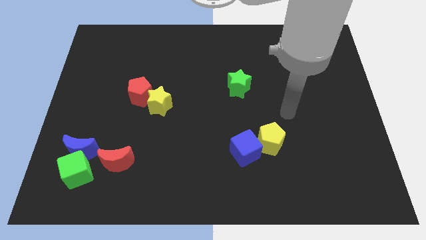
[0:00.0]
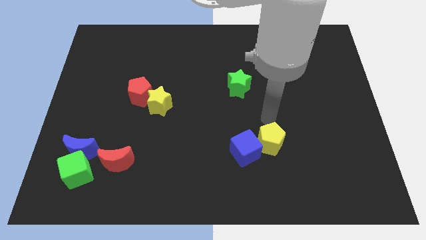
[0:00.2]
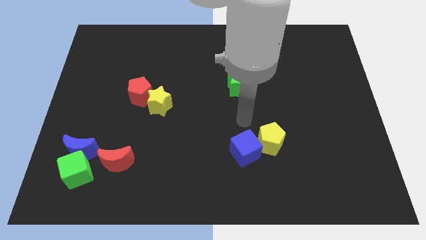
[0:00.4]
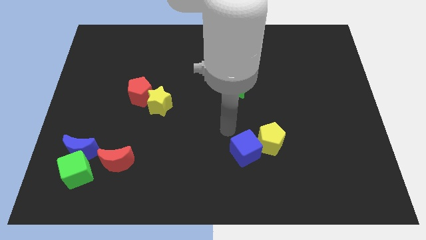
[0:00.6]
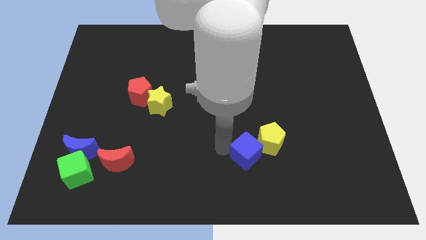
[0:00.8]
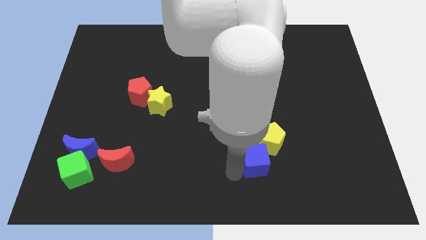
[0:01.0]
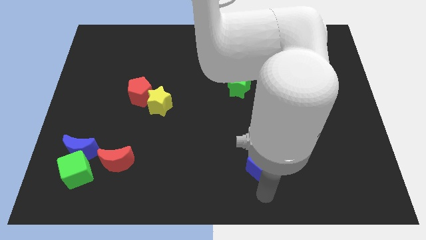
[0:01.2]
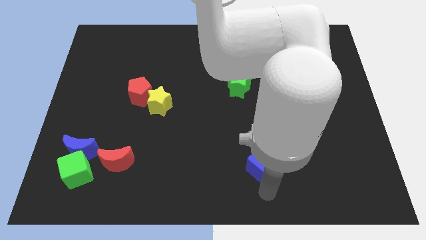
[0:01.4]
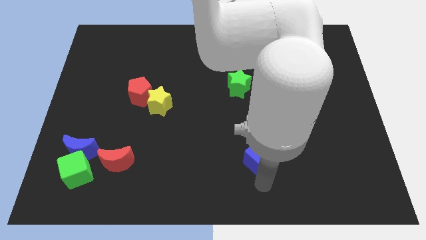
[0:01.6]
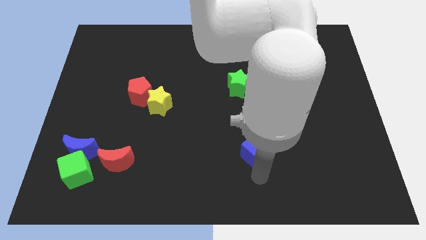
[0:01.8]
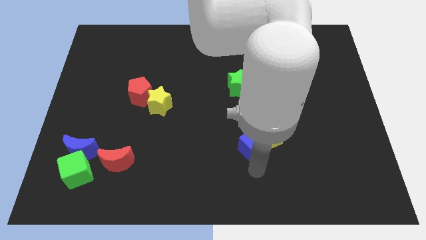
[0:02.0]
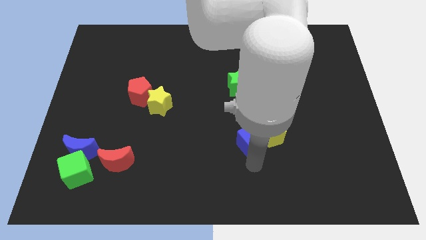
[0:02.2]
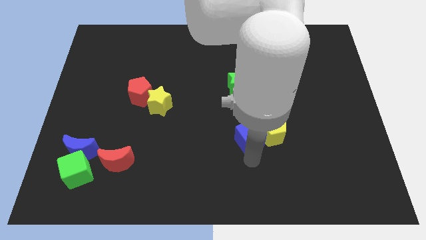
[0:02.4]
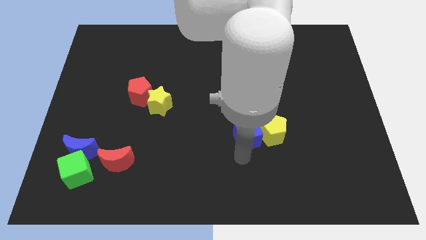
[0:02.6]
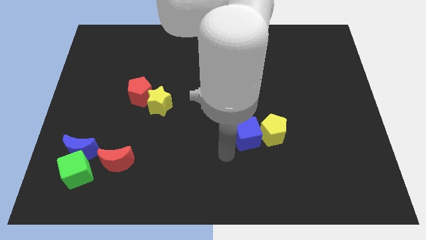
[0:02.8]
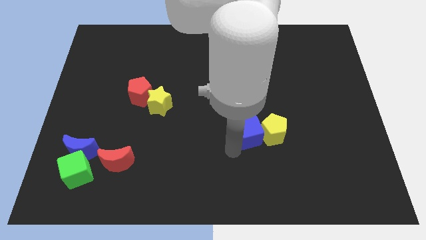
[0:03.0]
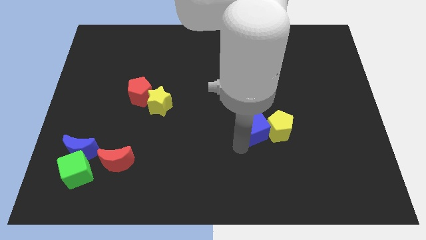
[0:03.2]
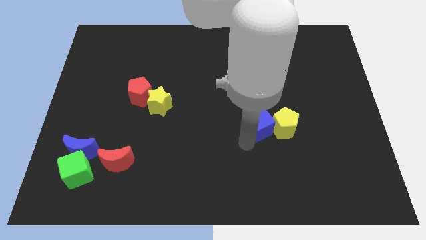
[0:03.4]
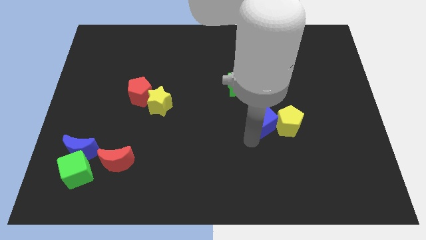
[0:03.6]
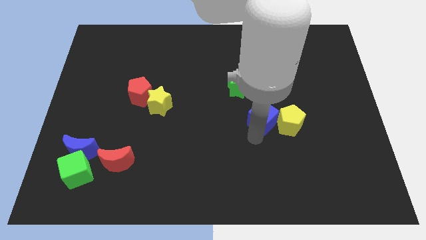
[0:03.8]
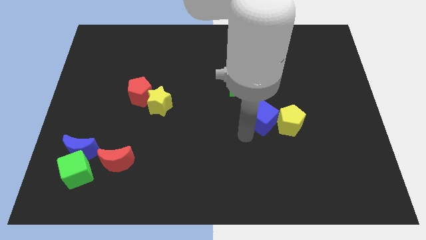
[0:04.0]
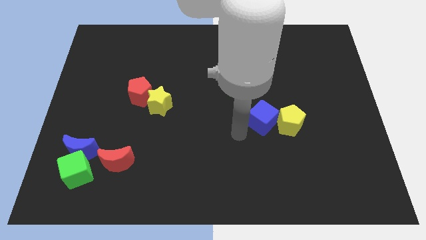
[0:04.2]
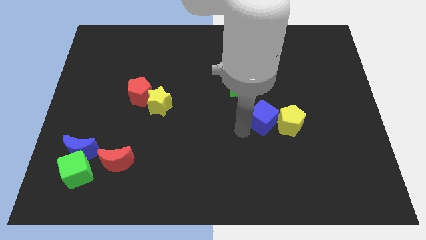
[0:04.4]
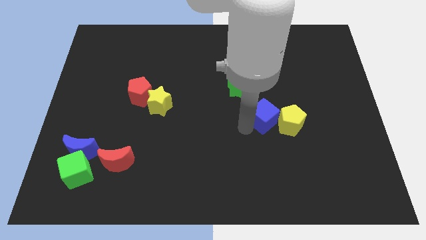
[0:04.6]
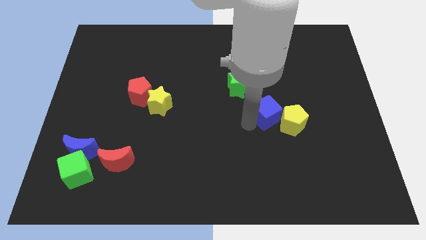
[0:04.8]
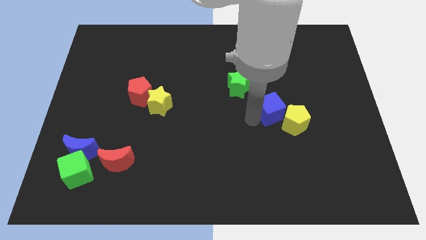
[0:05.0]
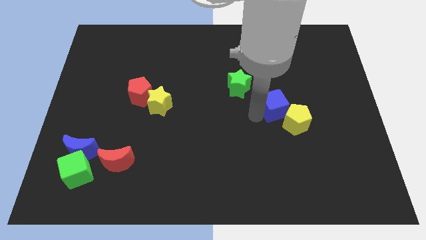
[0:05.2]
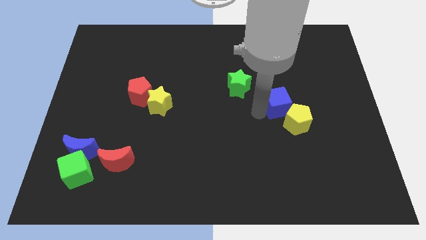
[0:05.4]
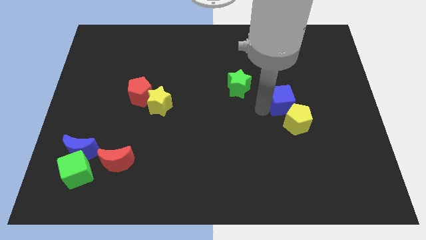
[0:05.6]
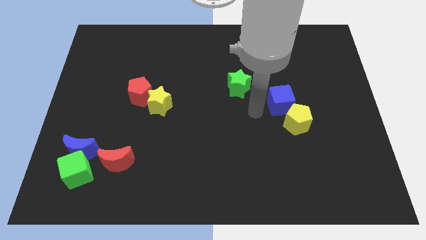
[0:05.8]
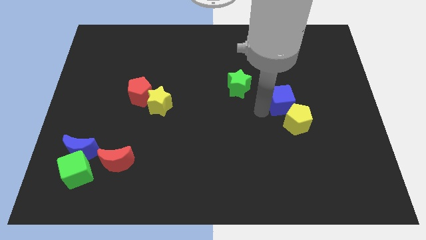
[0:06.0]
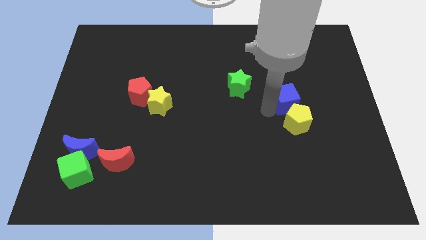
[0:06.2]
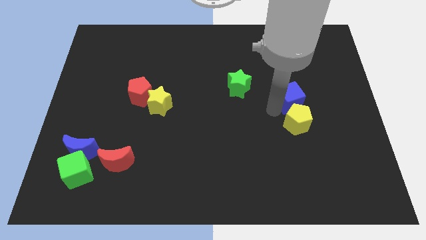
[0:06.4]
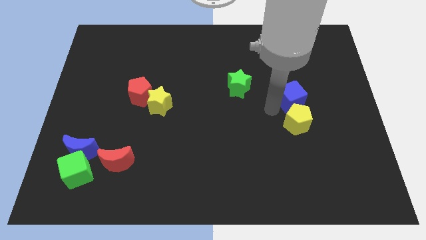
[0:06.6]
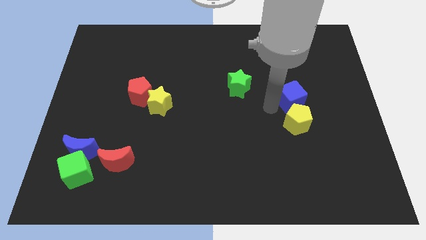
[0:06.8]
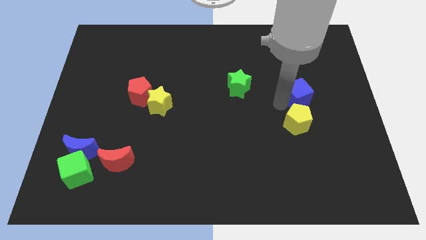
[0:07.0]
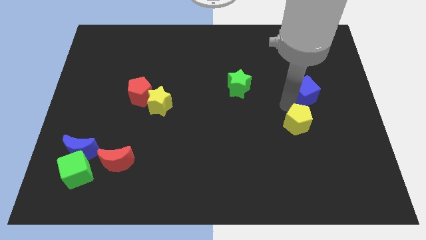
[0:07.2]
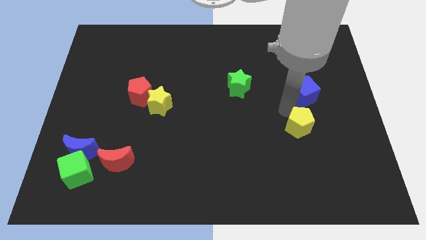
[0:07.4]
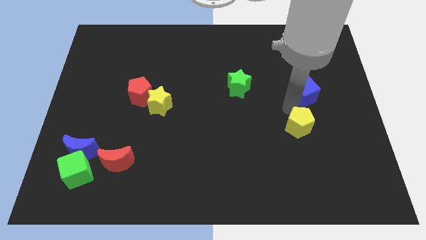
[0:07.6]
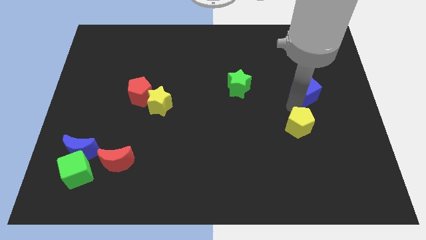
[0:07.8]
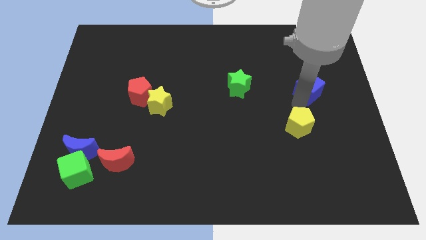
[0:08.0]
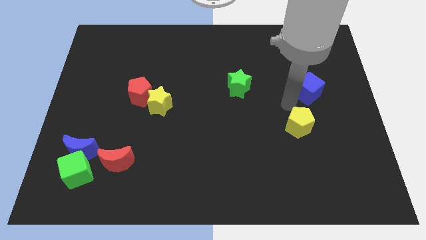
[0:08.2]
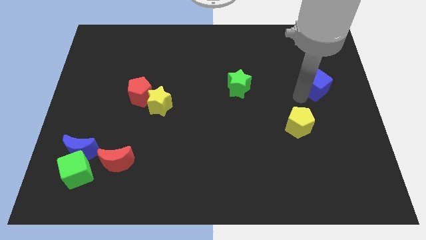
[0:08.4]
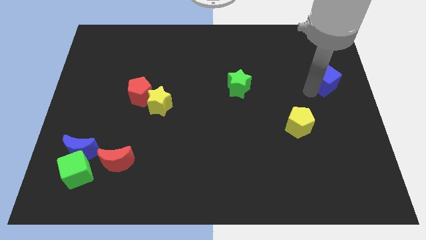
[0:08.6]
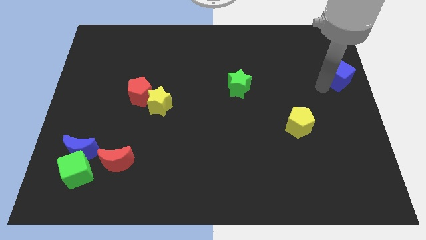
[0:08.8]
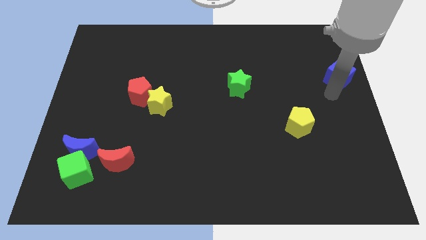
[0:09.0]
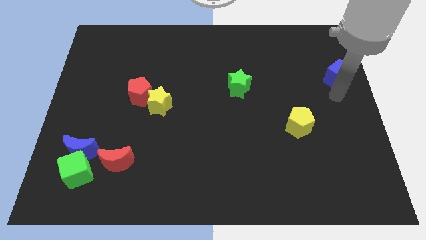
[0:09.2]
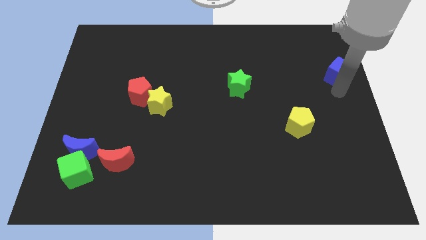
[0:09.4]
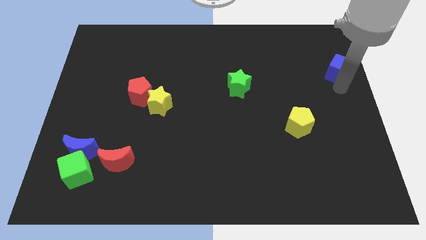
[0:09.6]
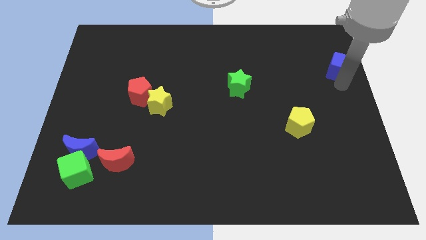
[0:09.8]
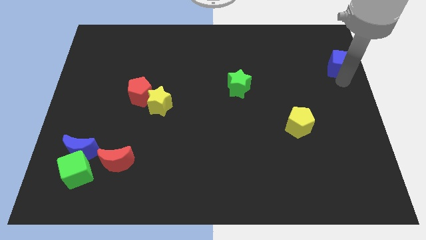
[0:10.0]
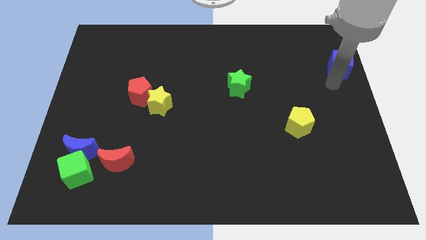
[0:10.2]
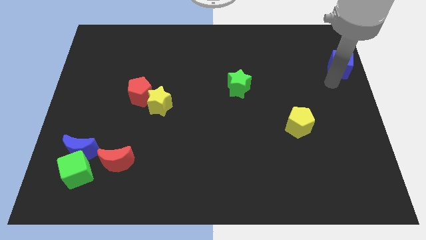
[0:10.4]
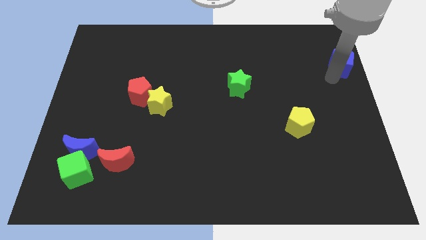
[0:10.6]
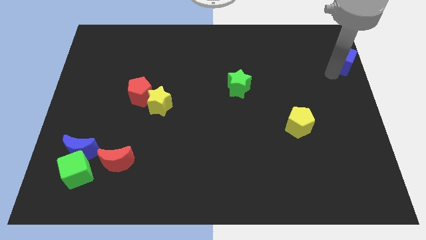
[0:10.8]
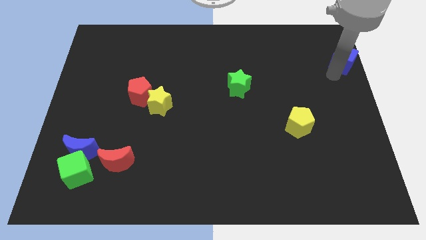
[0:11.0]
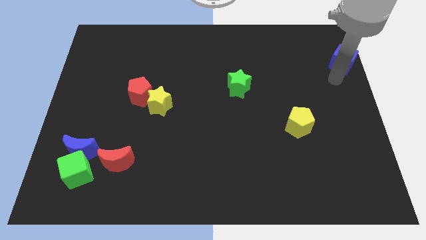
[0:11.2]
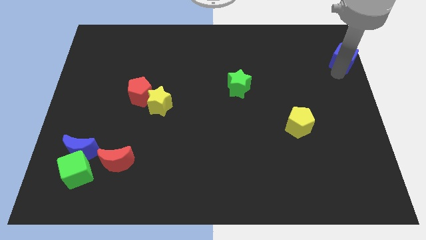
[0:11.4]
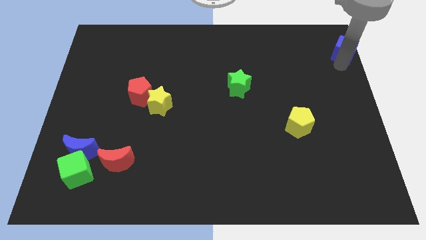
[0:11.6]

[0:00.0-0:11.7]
put the blue cube to the upper right corner
